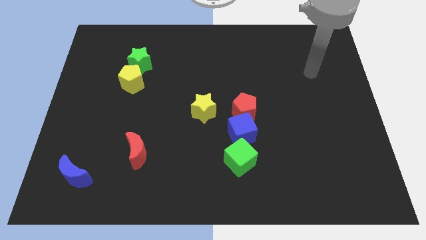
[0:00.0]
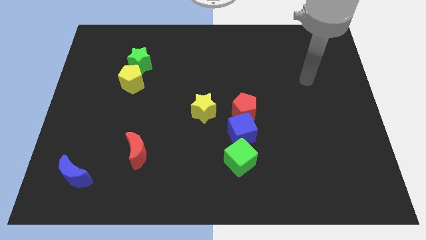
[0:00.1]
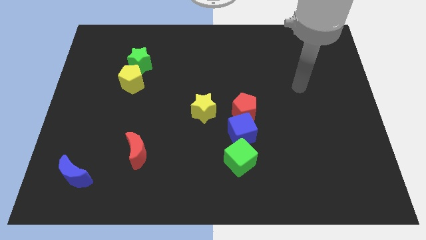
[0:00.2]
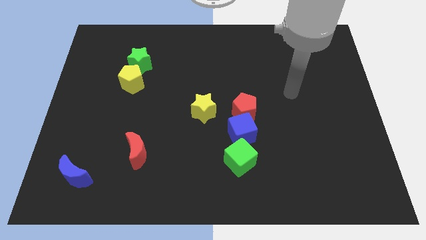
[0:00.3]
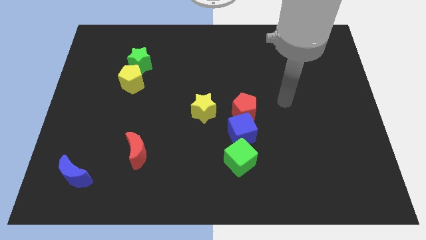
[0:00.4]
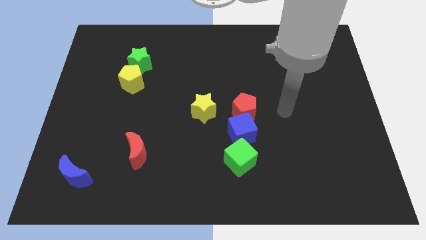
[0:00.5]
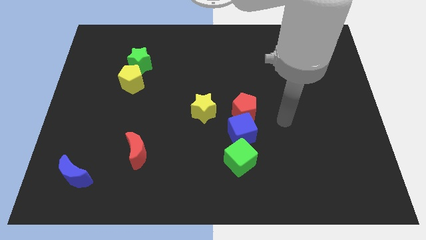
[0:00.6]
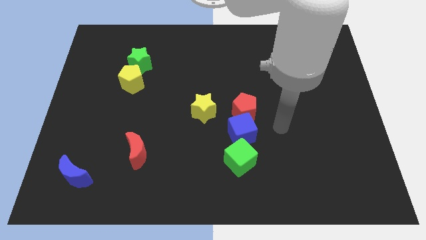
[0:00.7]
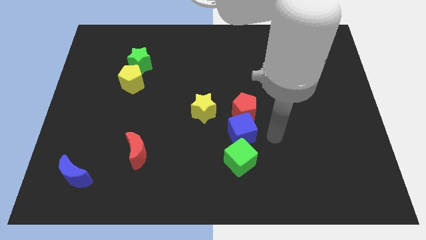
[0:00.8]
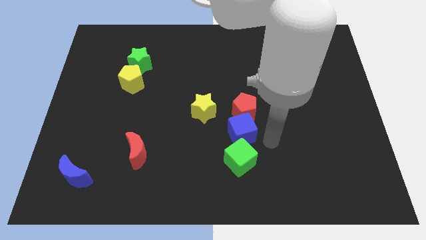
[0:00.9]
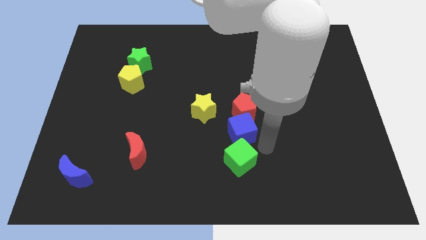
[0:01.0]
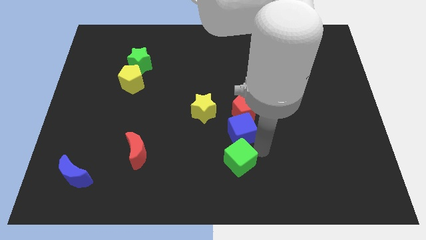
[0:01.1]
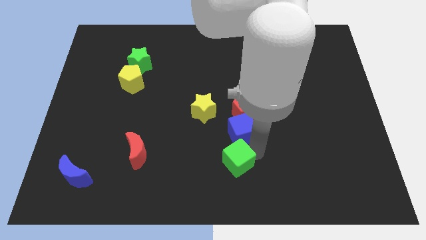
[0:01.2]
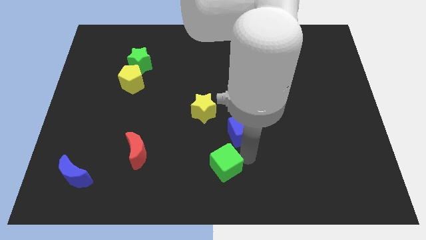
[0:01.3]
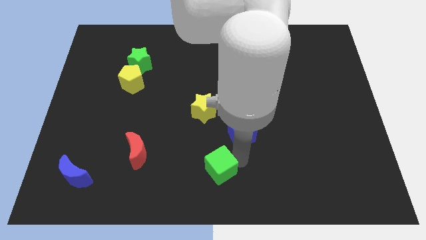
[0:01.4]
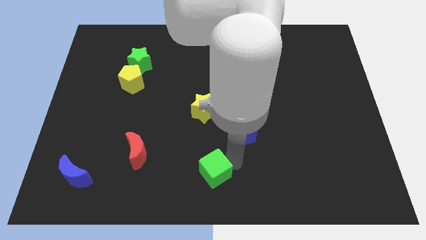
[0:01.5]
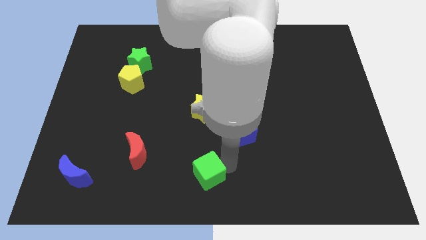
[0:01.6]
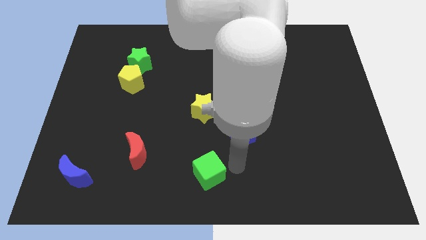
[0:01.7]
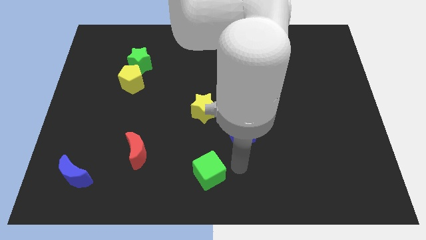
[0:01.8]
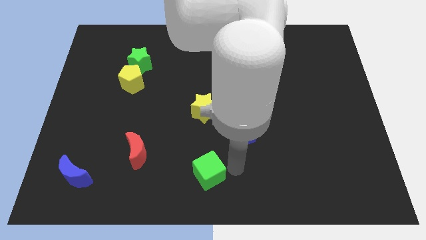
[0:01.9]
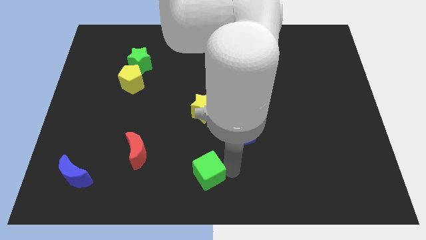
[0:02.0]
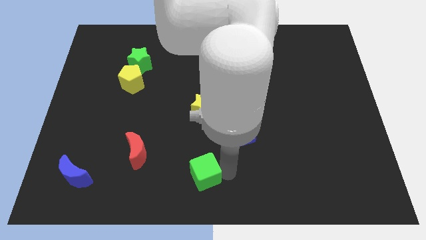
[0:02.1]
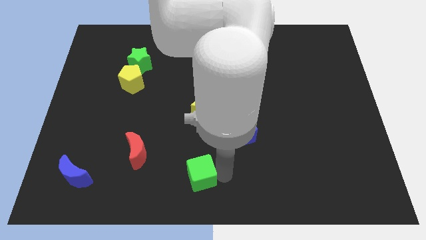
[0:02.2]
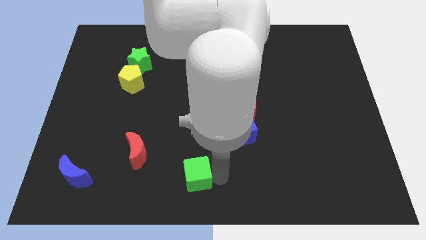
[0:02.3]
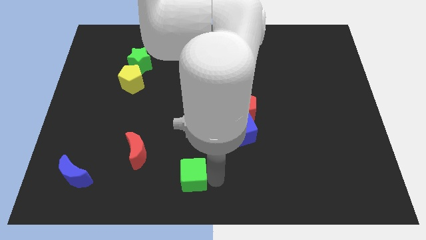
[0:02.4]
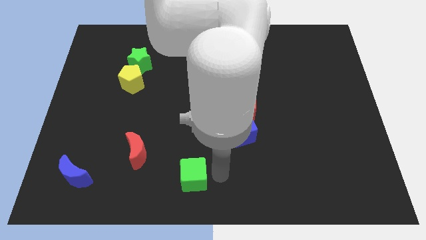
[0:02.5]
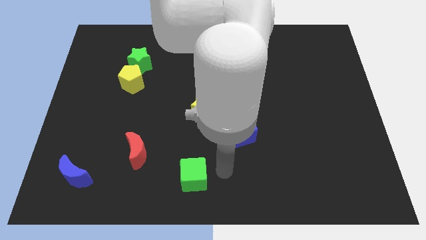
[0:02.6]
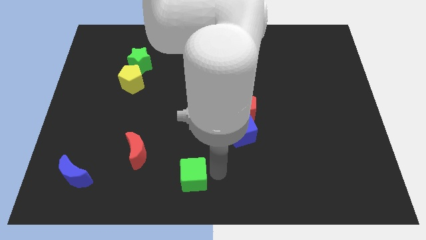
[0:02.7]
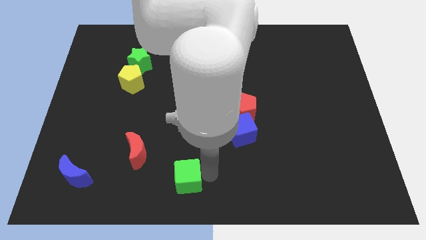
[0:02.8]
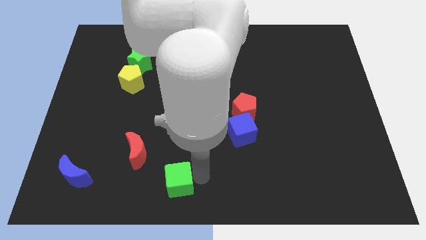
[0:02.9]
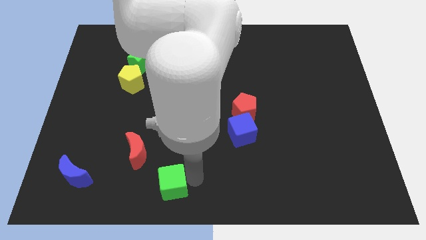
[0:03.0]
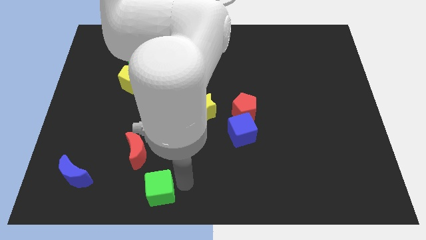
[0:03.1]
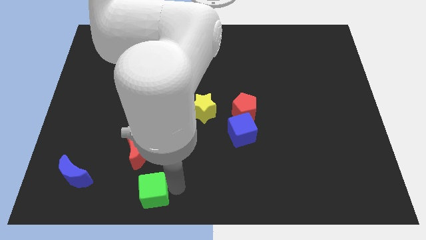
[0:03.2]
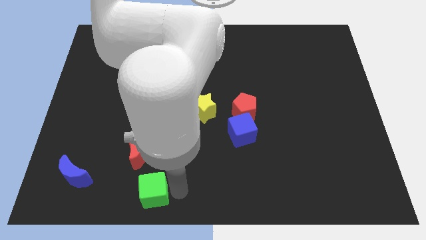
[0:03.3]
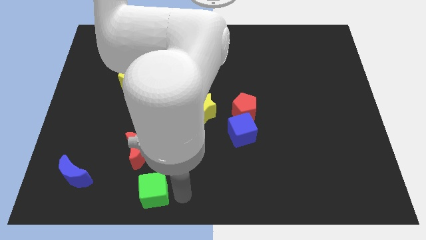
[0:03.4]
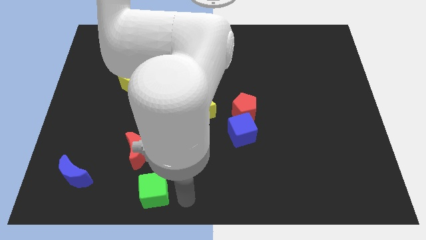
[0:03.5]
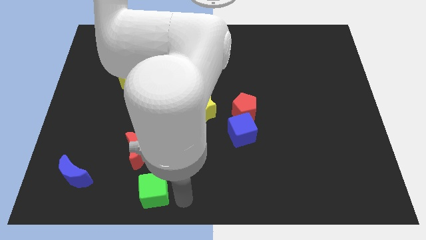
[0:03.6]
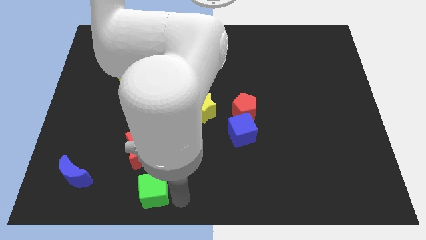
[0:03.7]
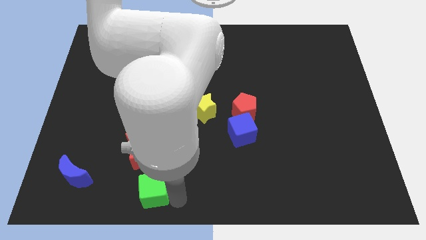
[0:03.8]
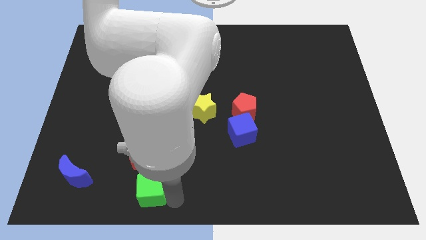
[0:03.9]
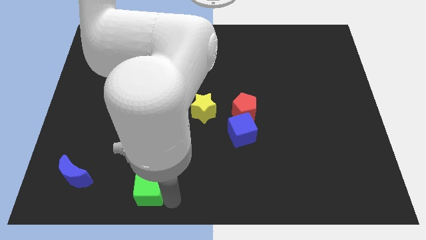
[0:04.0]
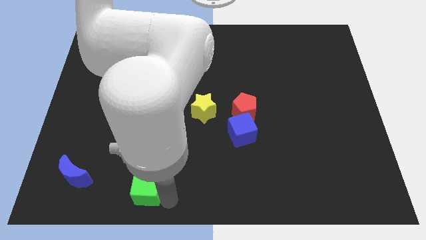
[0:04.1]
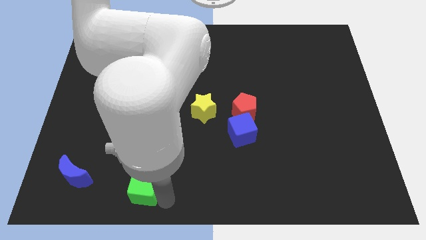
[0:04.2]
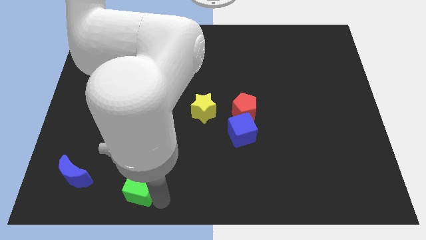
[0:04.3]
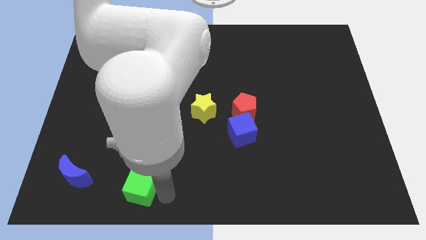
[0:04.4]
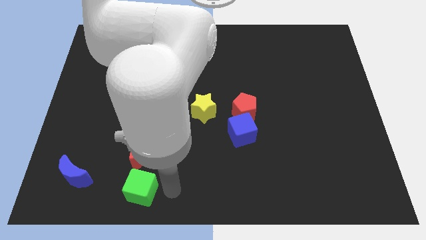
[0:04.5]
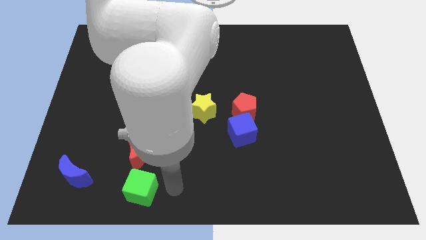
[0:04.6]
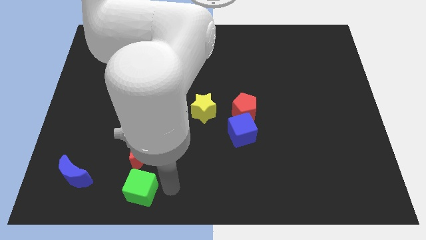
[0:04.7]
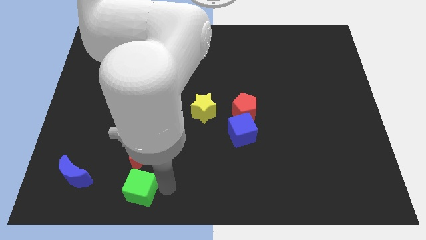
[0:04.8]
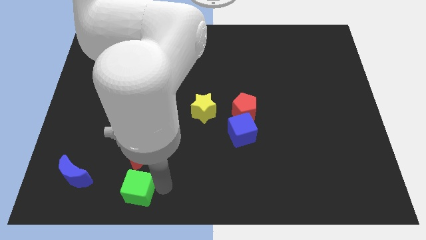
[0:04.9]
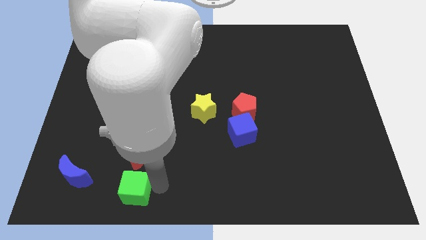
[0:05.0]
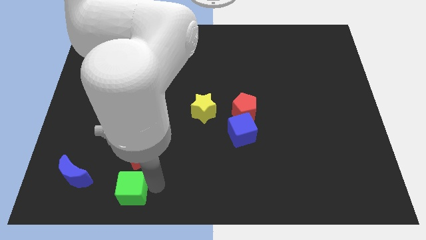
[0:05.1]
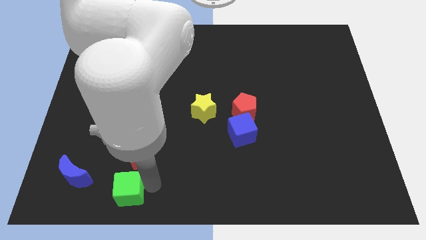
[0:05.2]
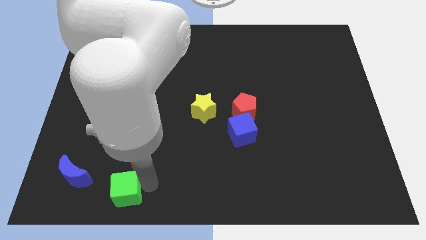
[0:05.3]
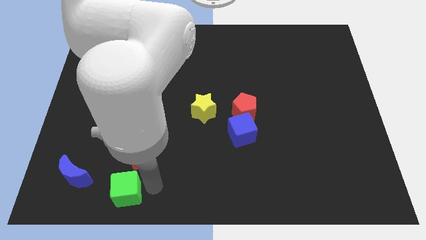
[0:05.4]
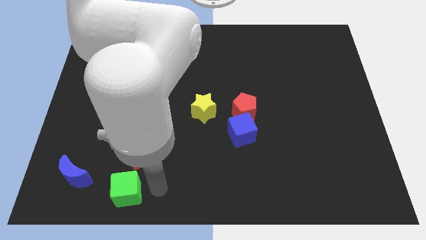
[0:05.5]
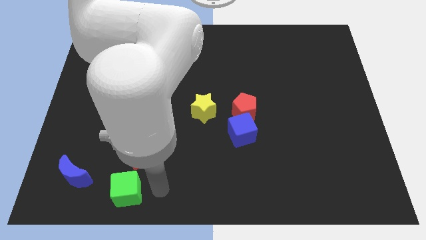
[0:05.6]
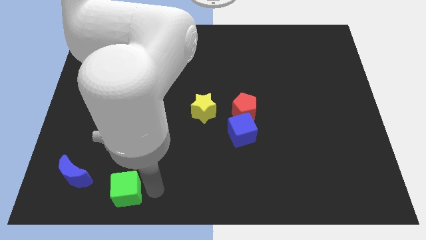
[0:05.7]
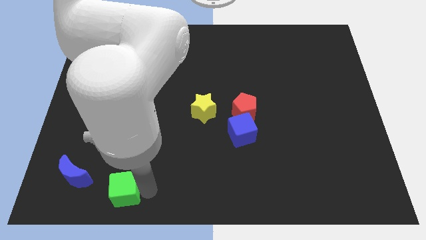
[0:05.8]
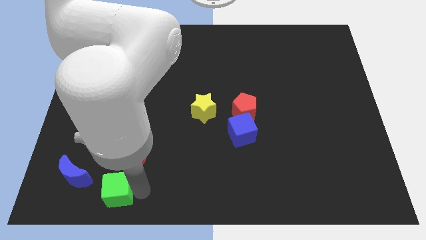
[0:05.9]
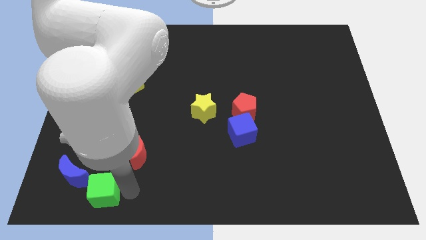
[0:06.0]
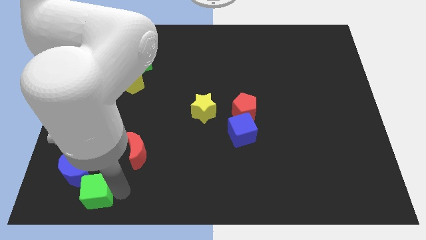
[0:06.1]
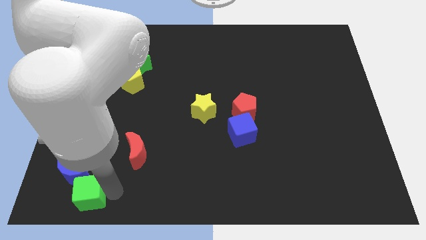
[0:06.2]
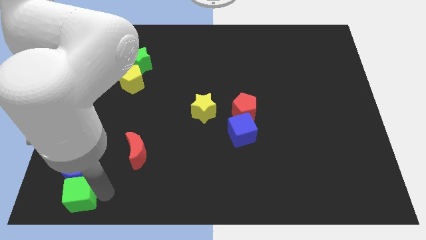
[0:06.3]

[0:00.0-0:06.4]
move the green cube to the bottom left
